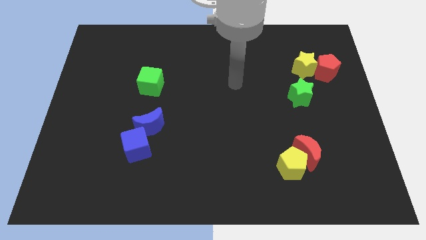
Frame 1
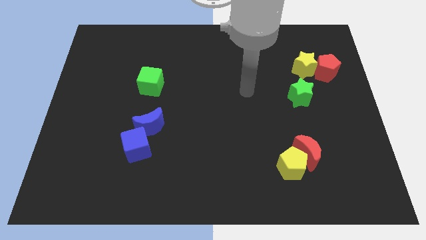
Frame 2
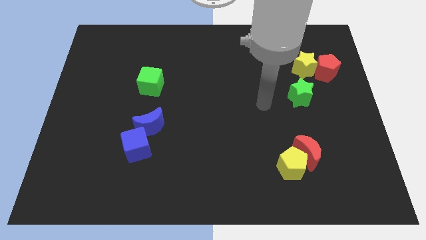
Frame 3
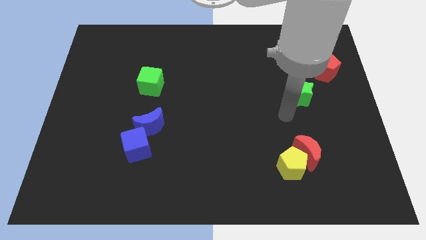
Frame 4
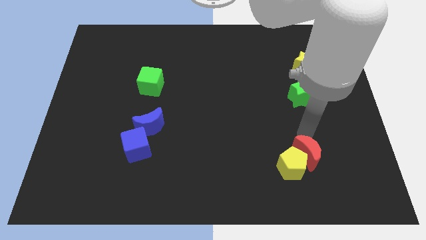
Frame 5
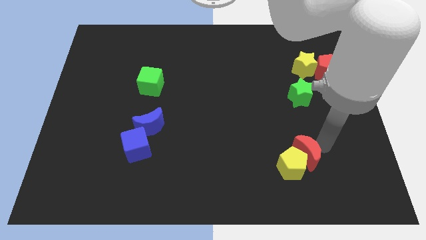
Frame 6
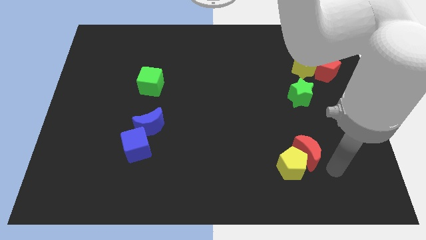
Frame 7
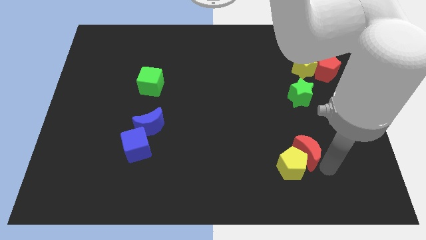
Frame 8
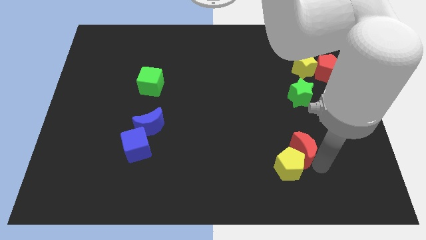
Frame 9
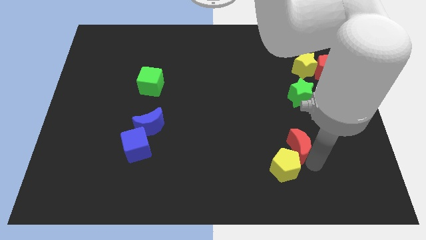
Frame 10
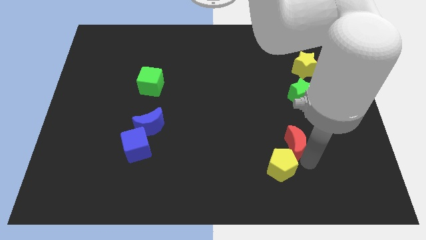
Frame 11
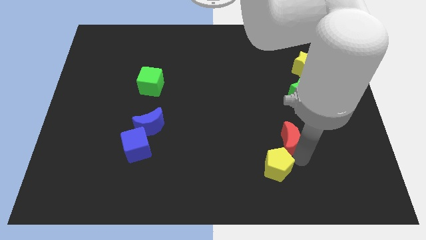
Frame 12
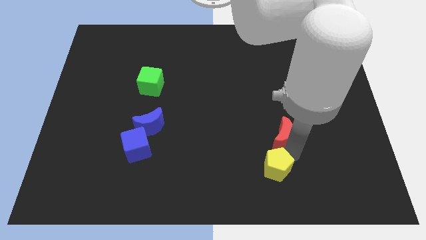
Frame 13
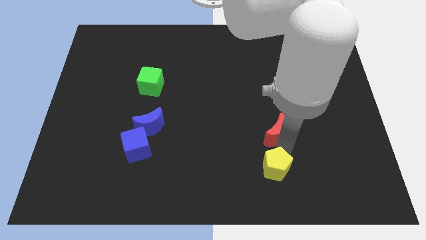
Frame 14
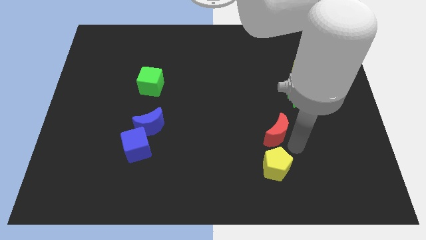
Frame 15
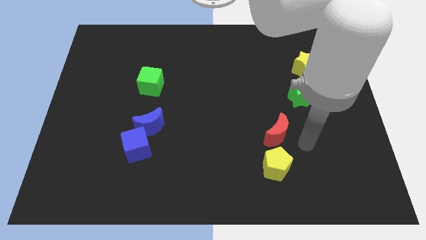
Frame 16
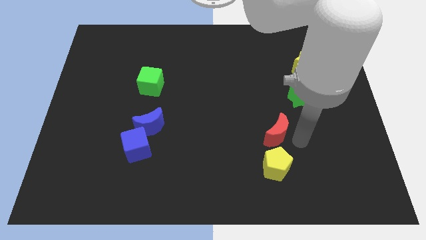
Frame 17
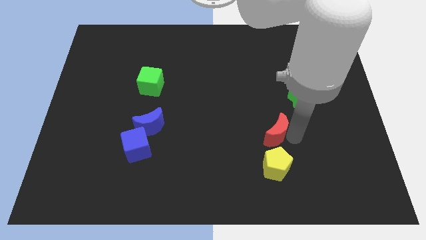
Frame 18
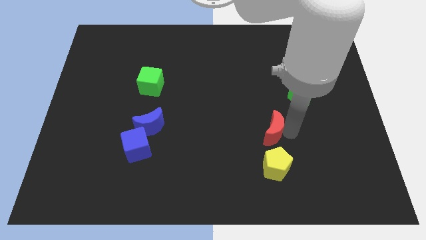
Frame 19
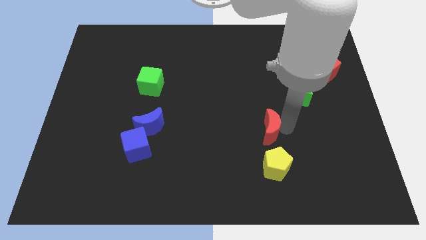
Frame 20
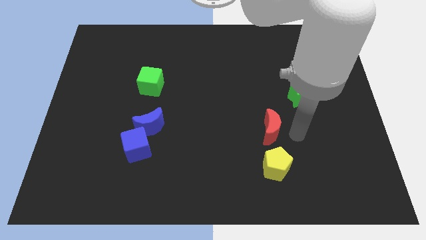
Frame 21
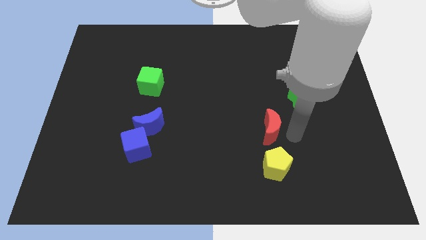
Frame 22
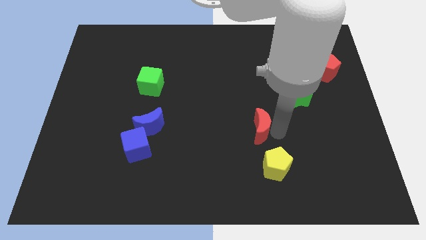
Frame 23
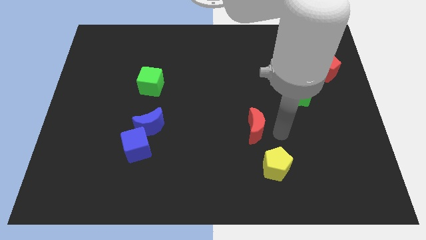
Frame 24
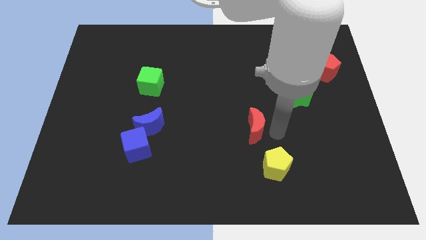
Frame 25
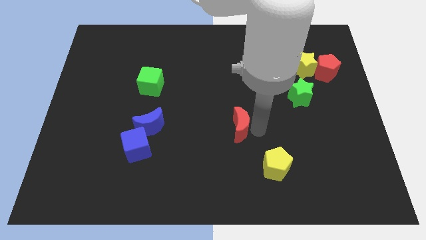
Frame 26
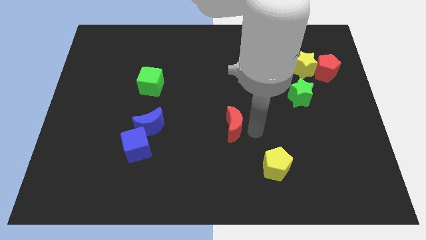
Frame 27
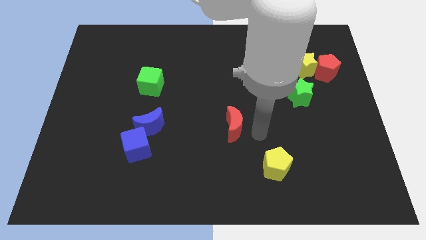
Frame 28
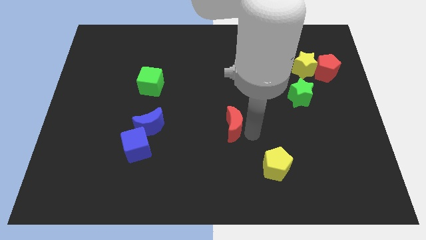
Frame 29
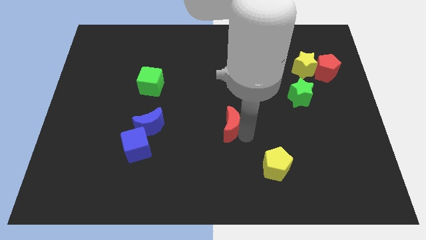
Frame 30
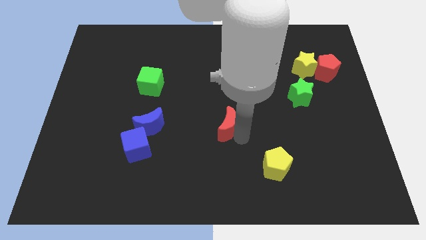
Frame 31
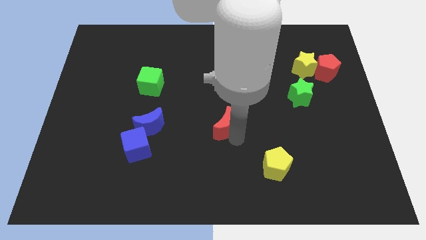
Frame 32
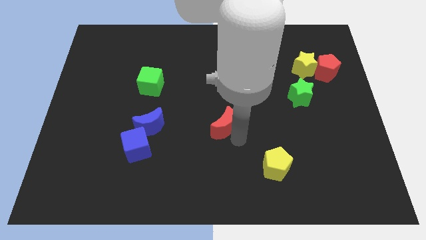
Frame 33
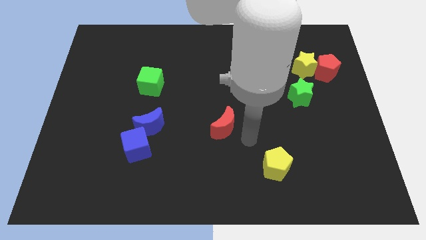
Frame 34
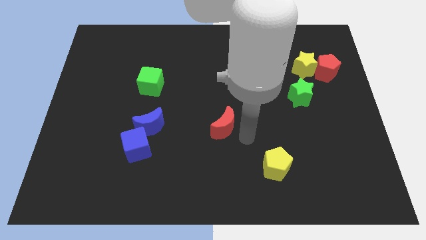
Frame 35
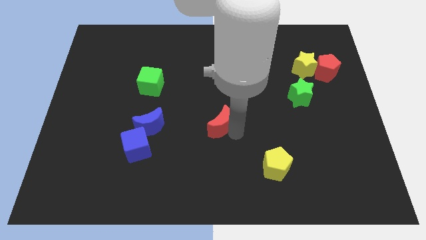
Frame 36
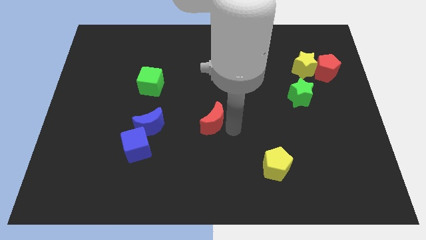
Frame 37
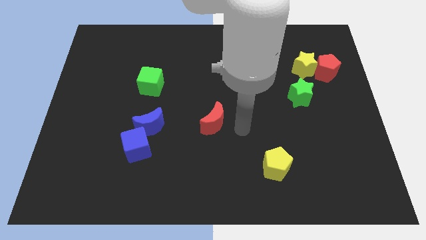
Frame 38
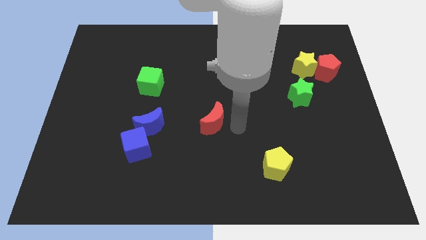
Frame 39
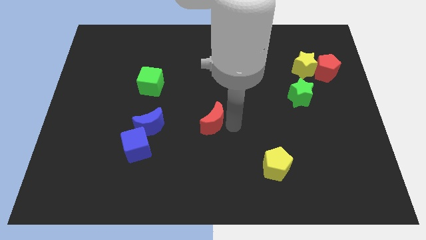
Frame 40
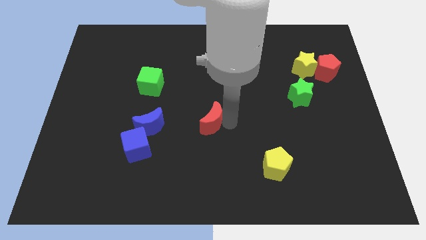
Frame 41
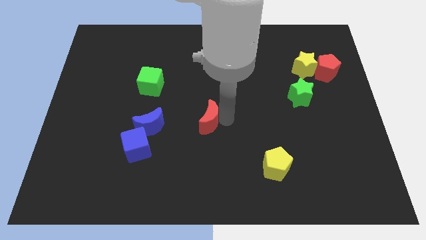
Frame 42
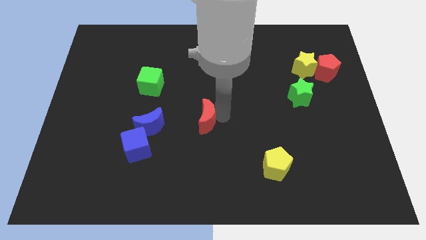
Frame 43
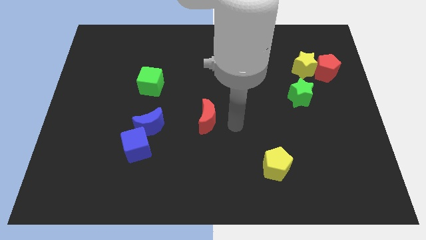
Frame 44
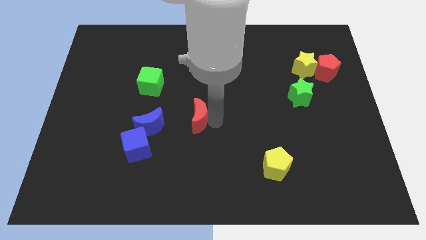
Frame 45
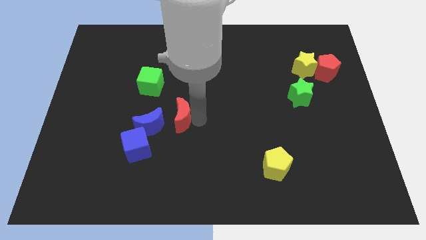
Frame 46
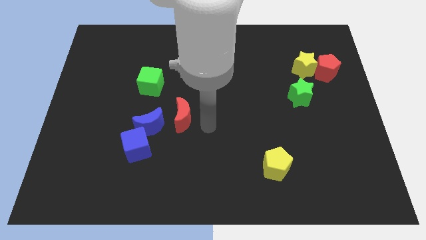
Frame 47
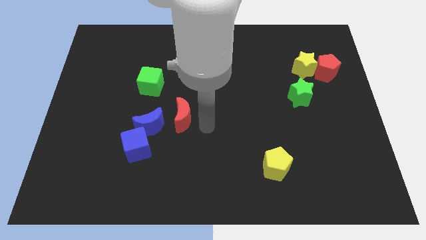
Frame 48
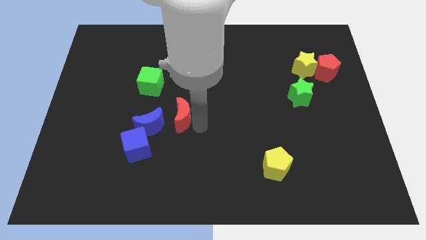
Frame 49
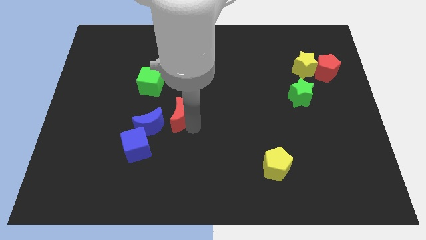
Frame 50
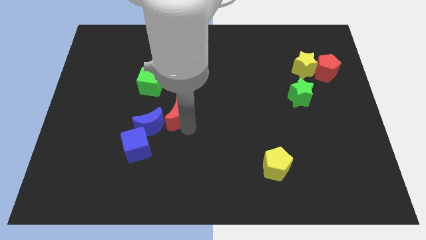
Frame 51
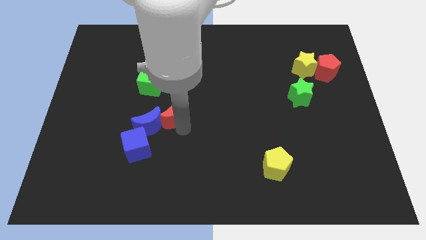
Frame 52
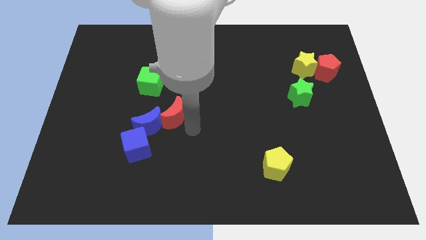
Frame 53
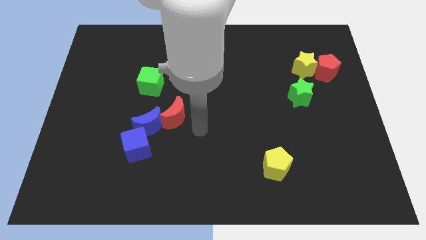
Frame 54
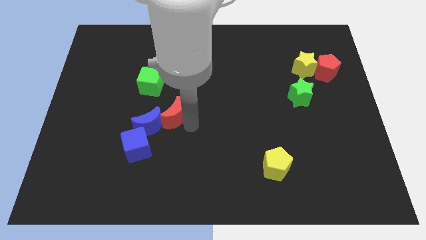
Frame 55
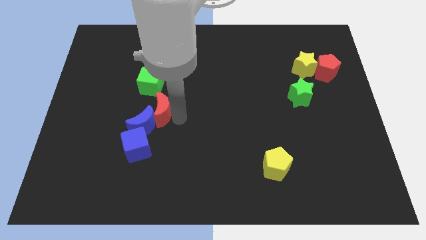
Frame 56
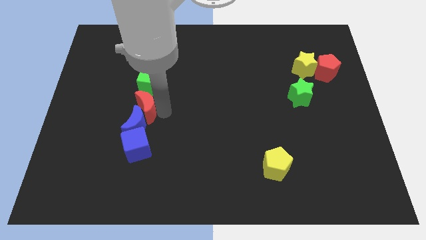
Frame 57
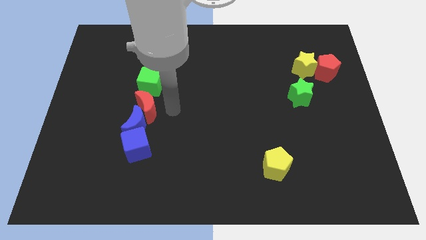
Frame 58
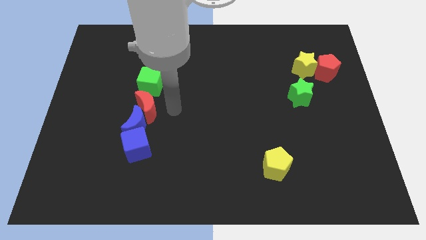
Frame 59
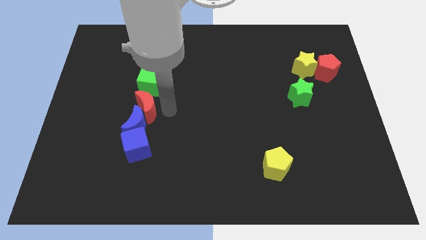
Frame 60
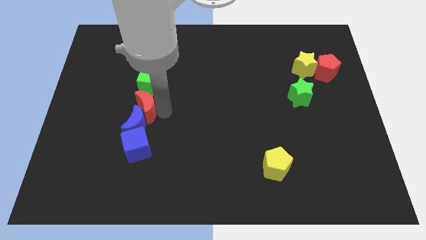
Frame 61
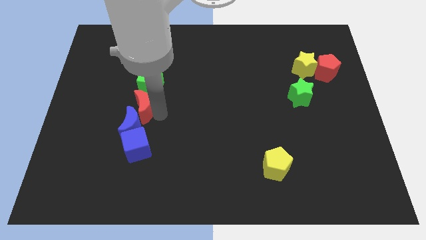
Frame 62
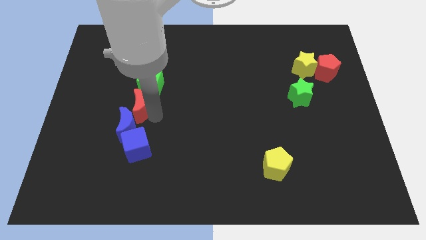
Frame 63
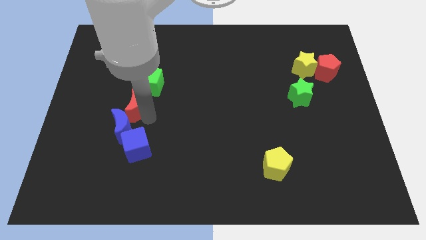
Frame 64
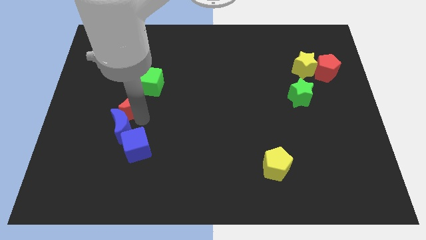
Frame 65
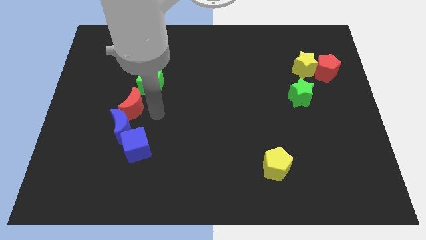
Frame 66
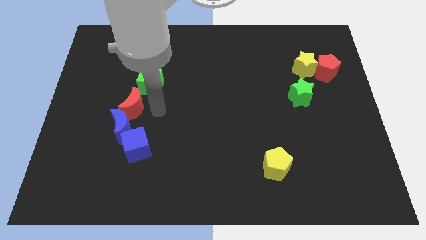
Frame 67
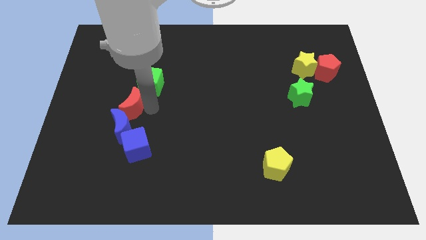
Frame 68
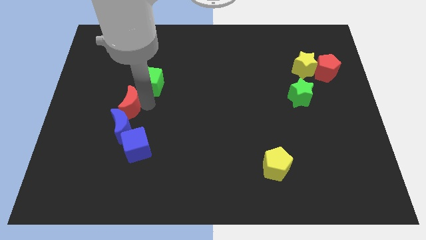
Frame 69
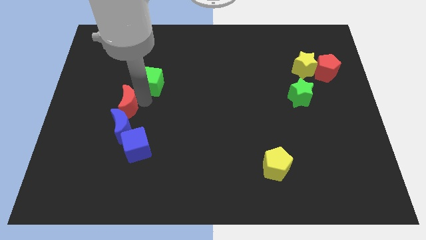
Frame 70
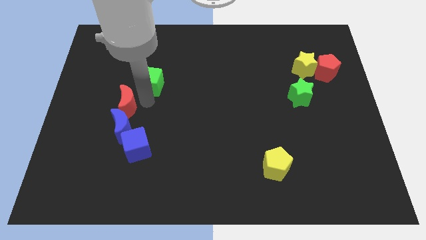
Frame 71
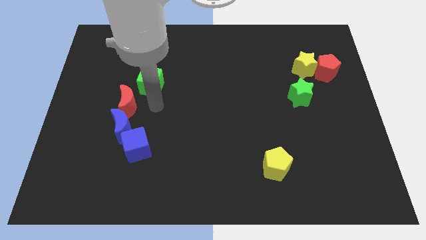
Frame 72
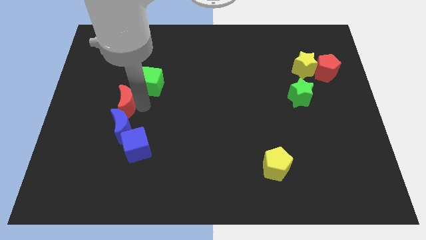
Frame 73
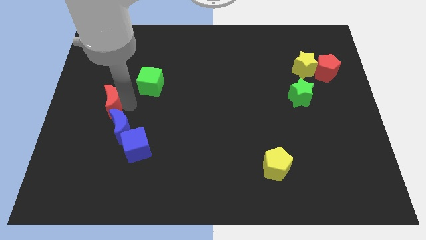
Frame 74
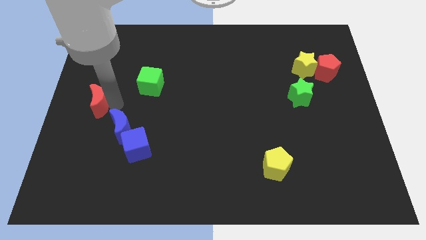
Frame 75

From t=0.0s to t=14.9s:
push the red moon to the center left
